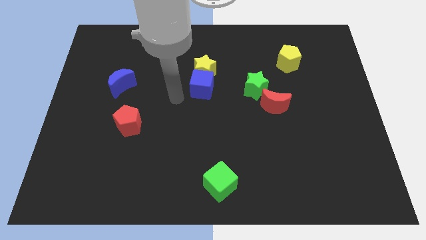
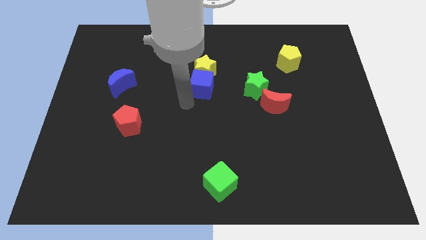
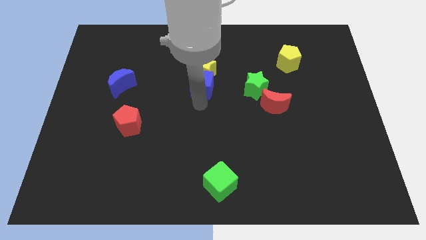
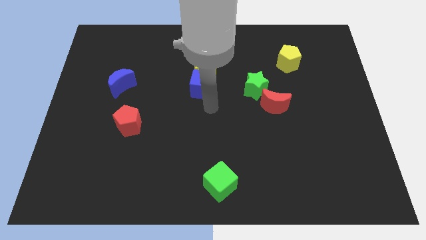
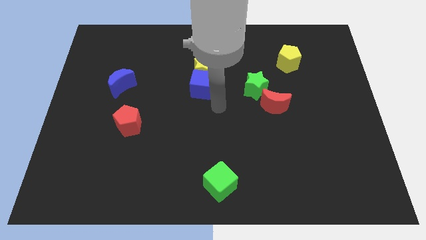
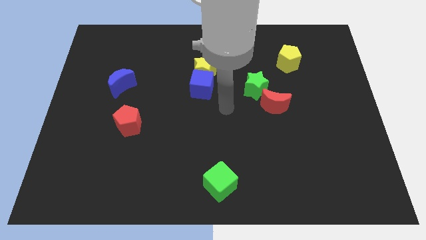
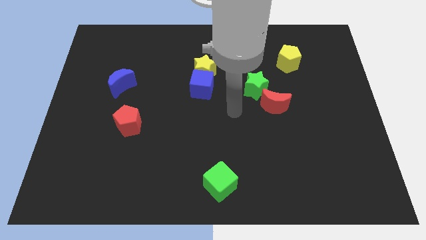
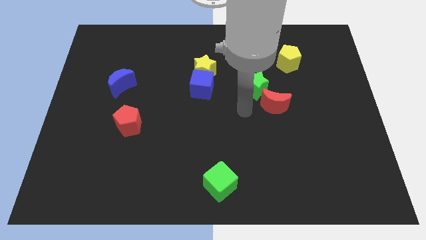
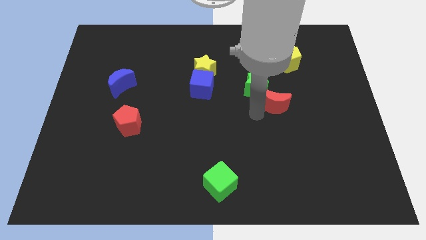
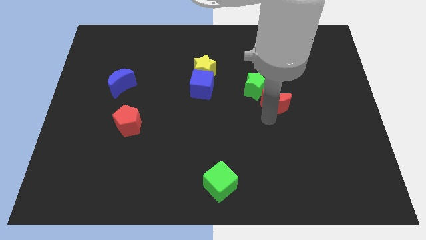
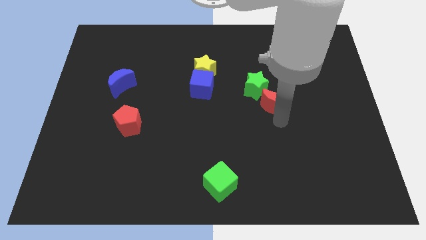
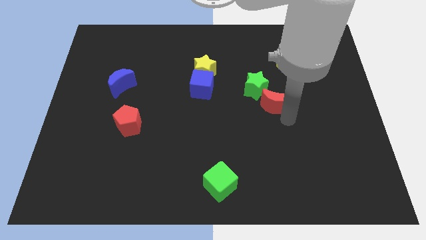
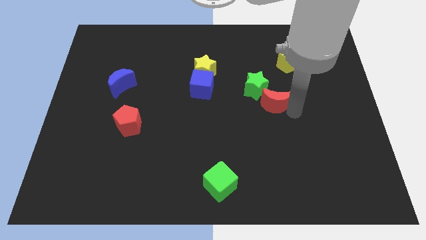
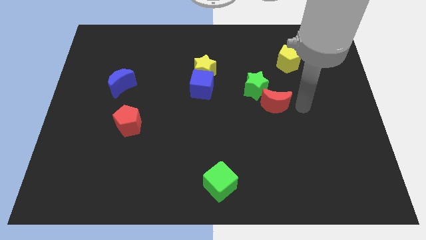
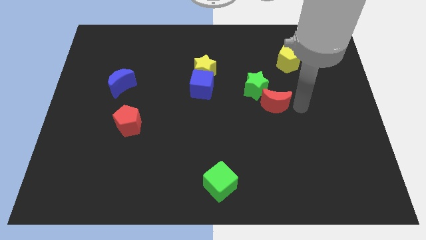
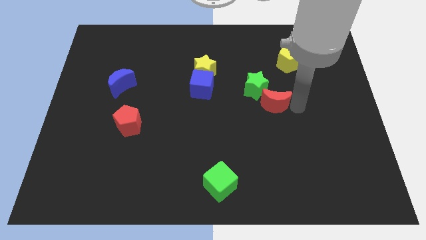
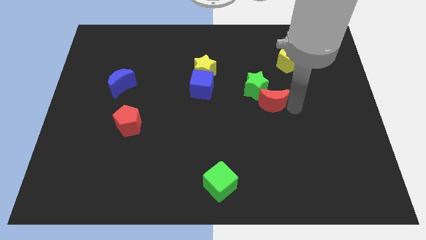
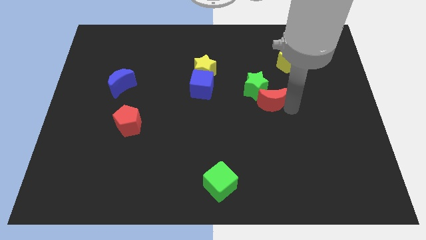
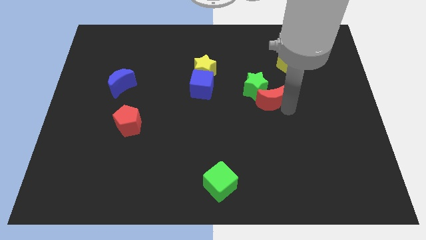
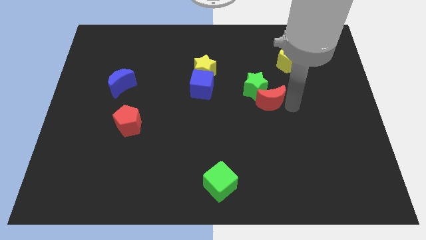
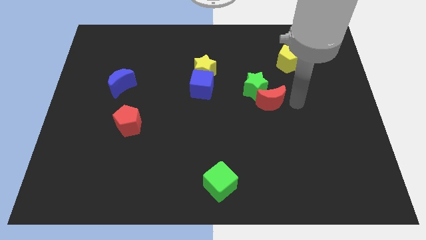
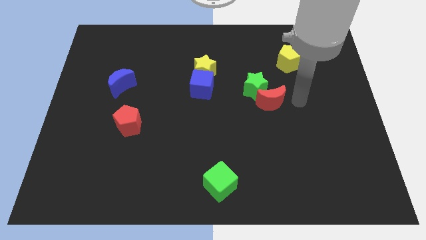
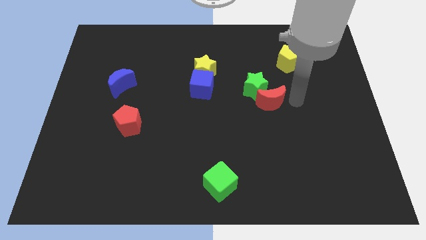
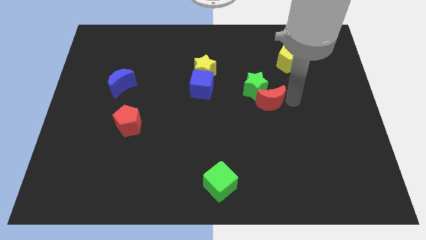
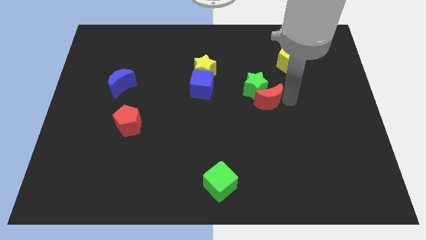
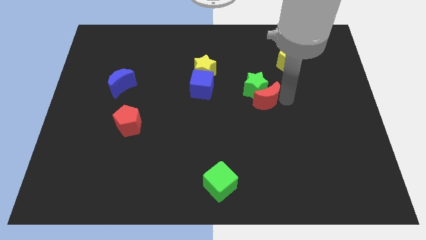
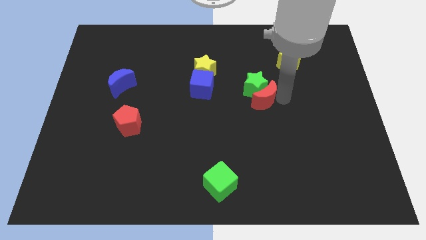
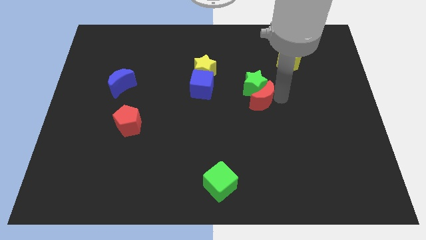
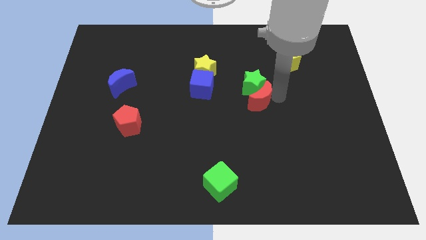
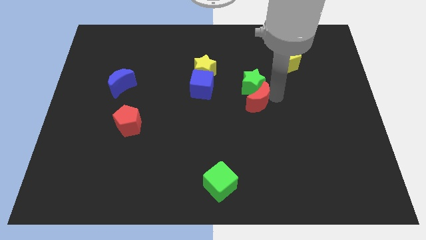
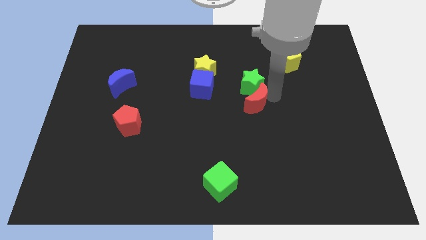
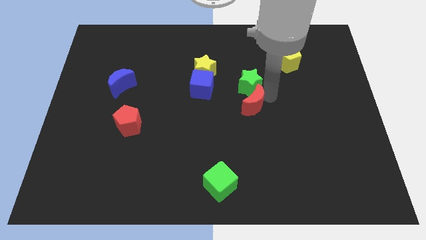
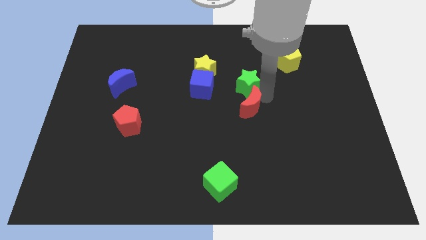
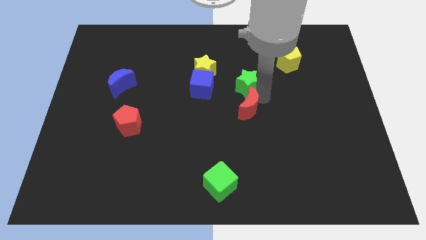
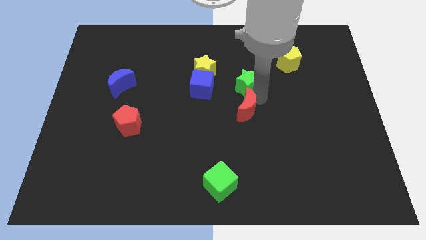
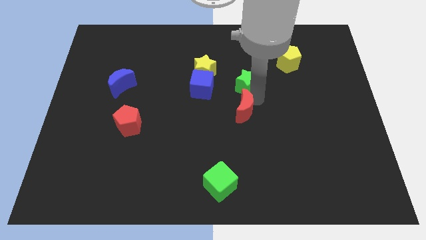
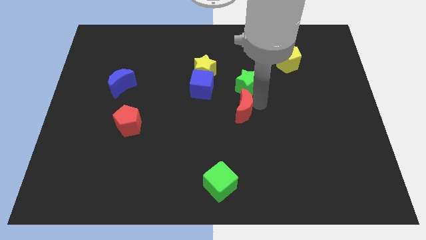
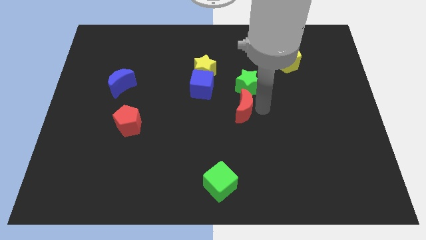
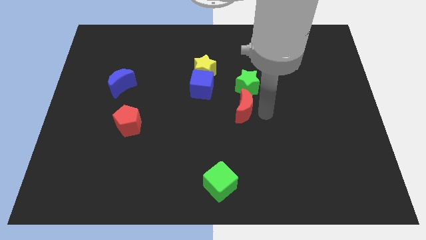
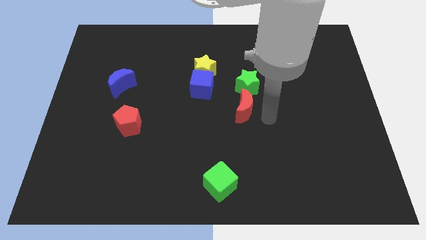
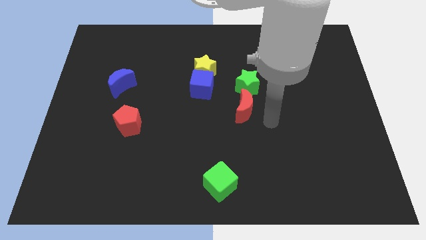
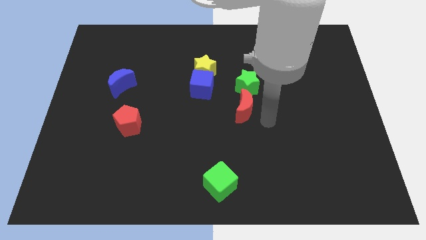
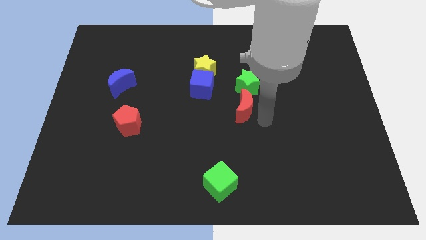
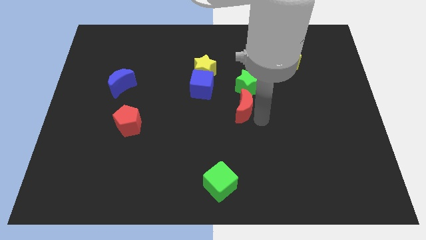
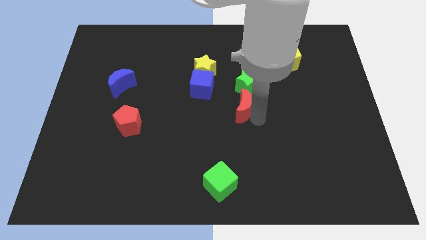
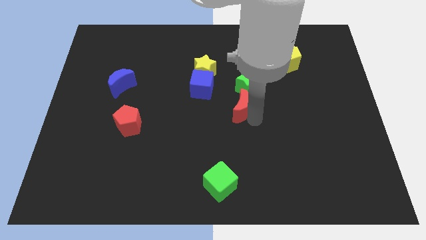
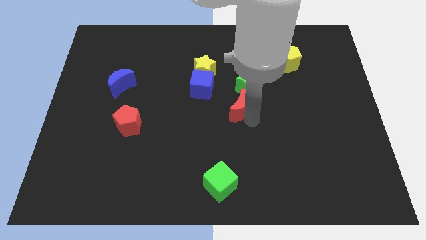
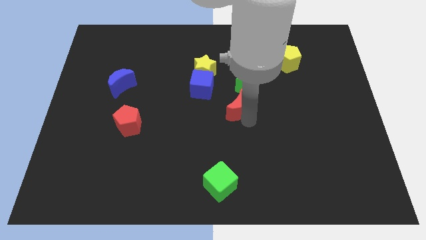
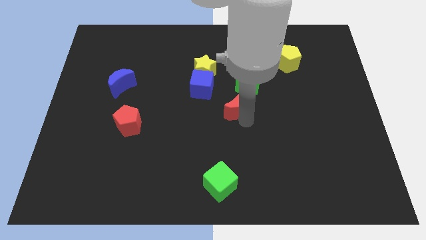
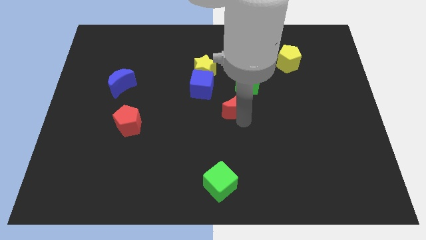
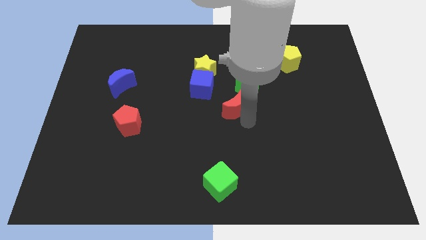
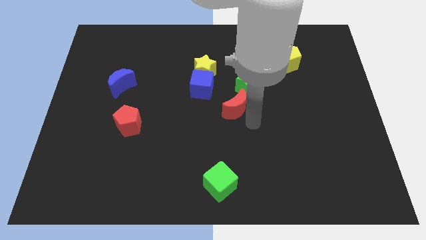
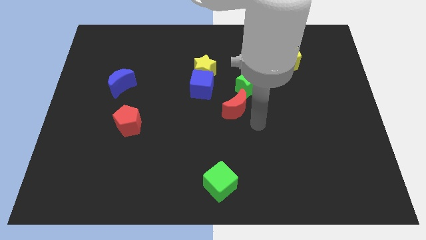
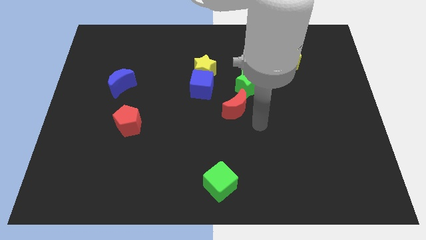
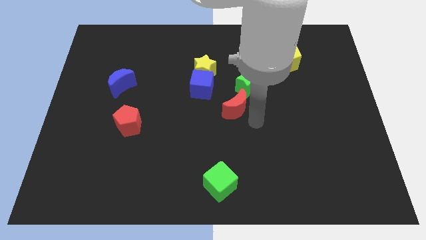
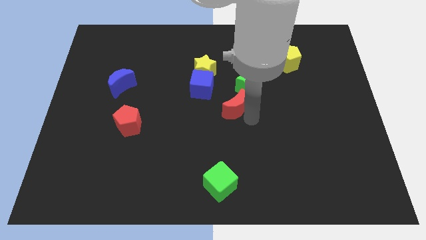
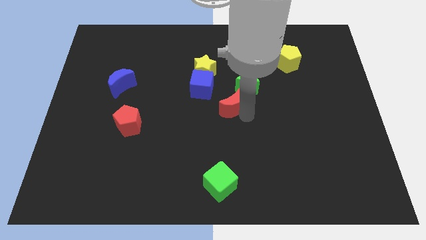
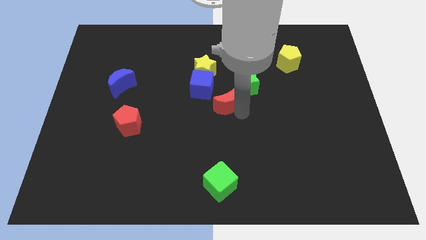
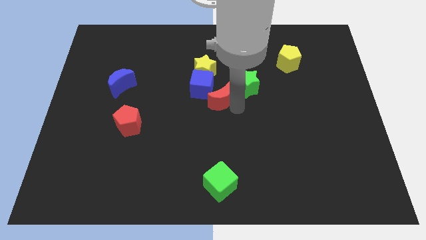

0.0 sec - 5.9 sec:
push the red moon to the bottom of the yellow star

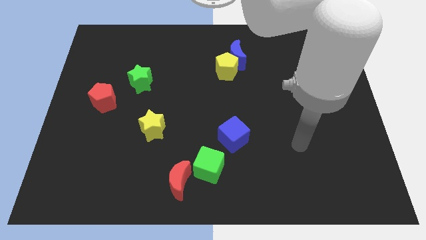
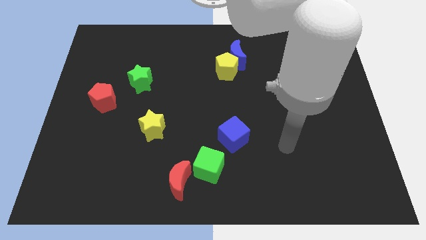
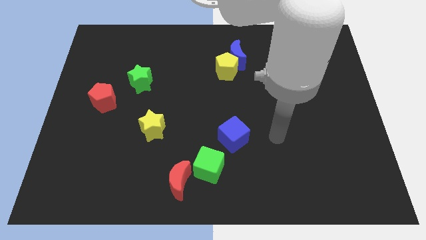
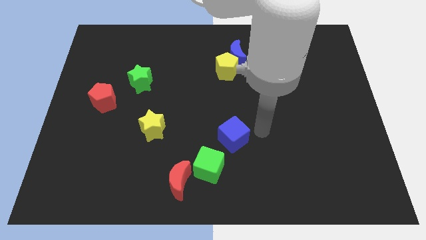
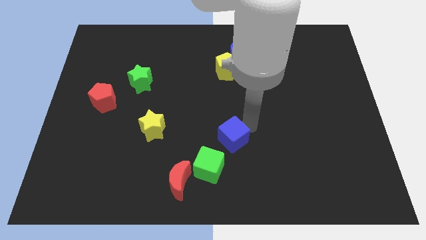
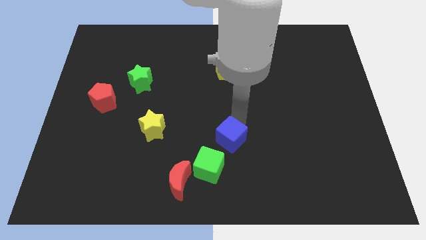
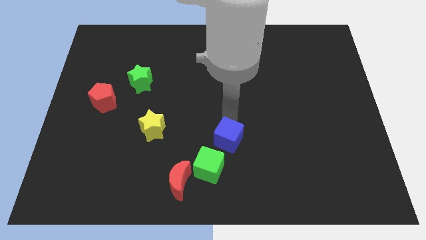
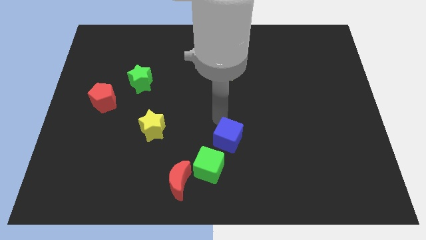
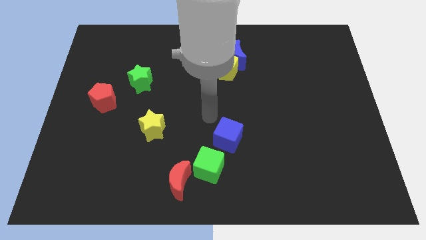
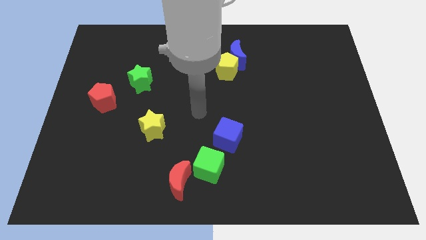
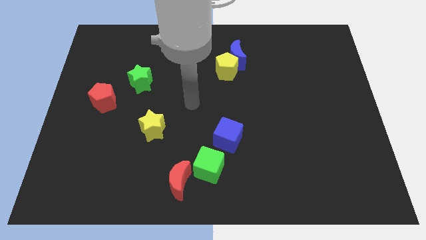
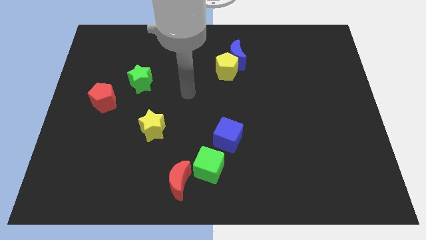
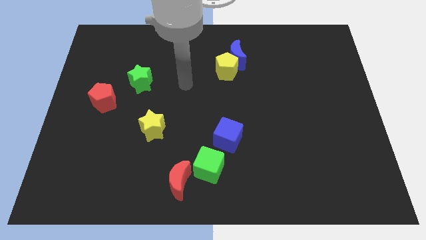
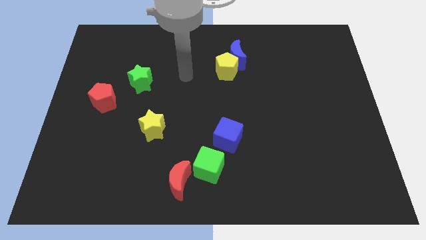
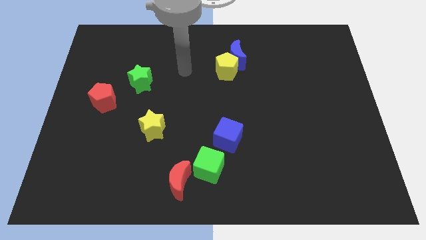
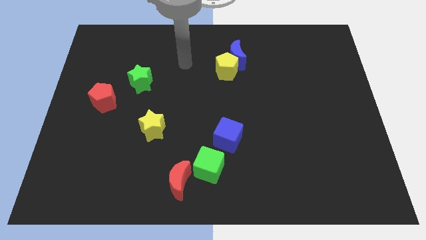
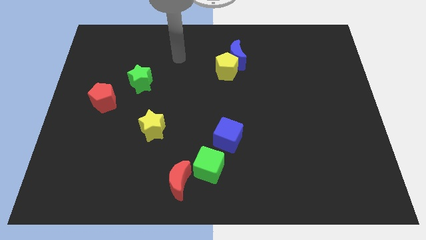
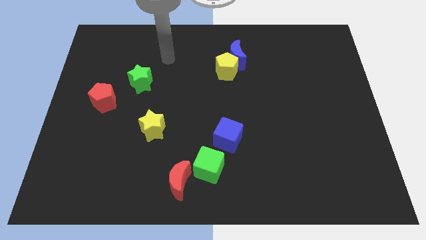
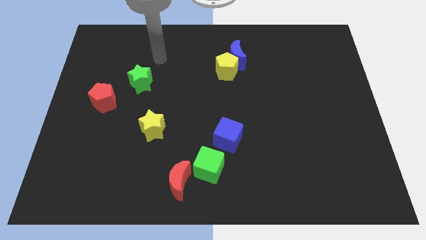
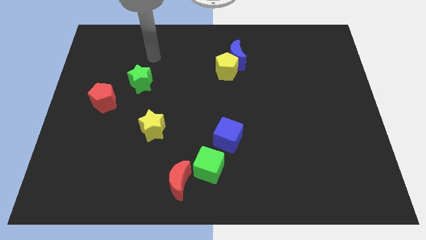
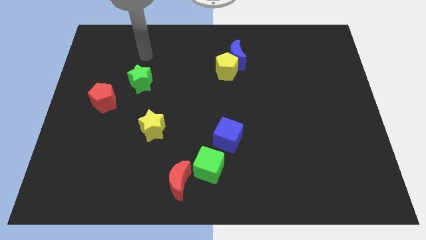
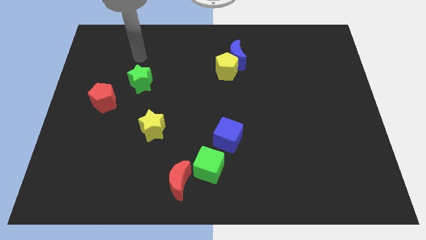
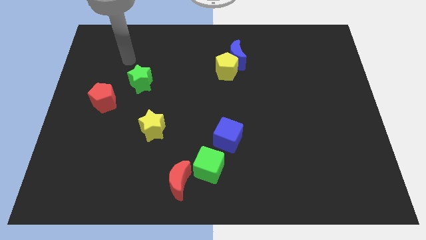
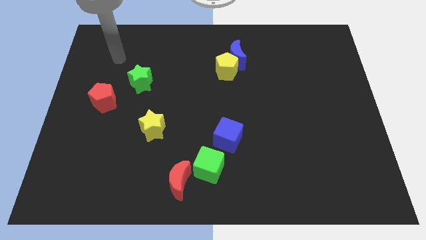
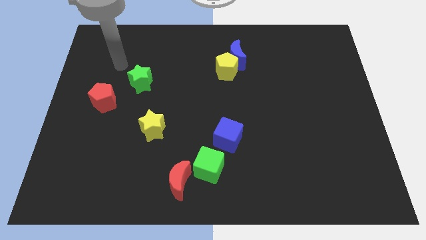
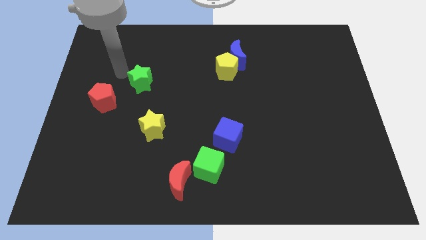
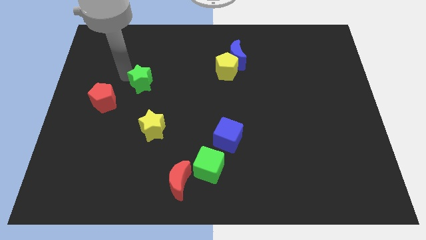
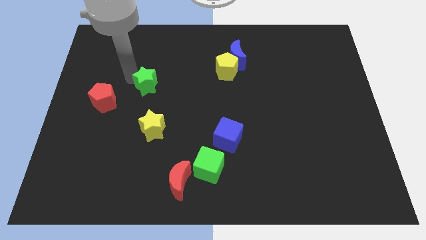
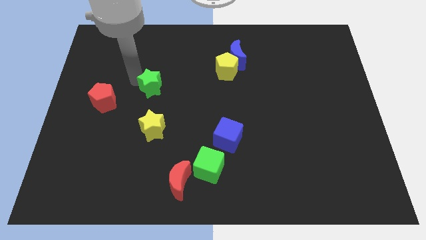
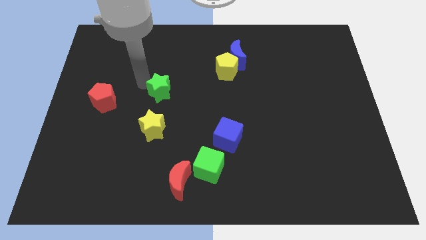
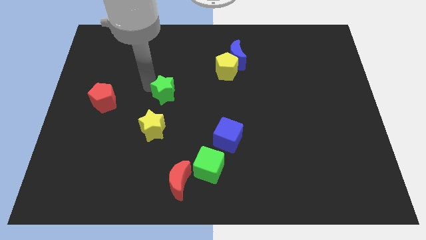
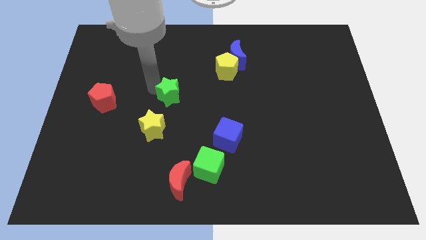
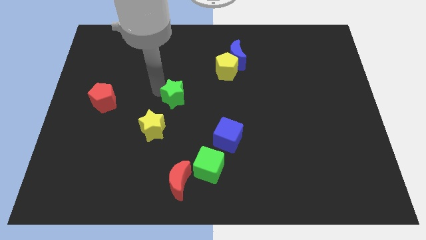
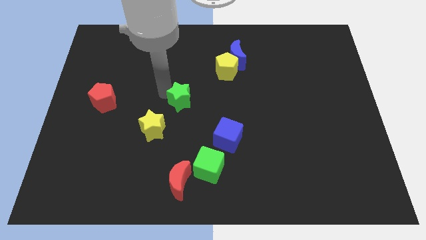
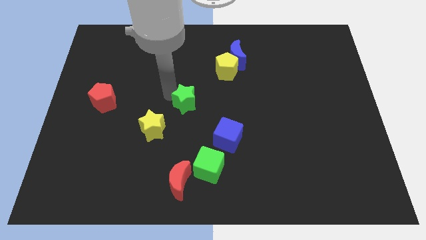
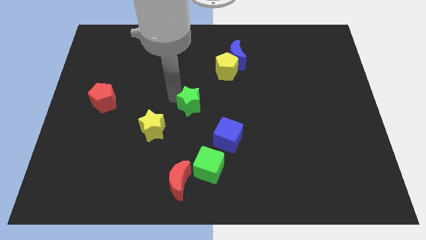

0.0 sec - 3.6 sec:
slide the green star to the top left side of the blue cube
